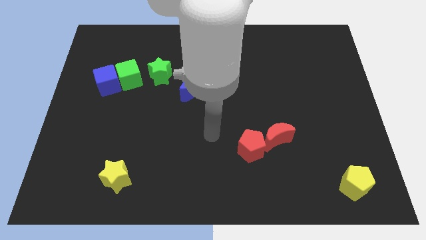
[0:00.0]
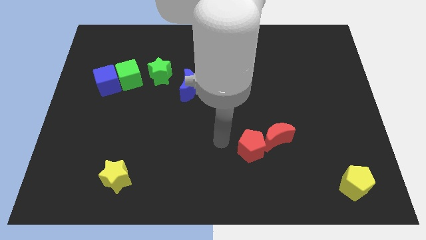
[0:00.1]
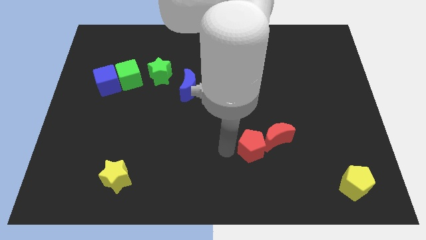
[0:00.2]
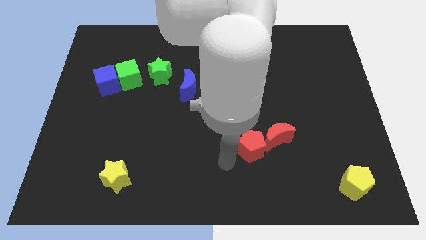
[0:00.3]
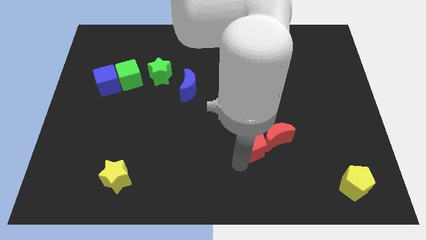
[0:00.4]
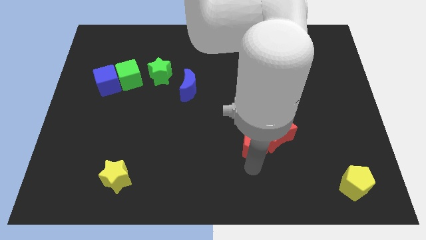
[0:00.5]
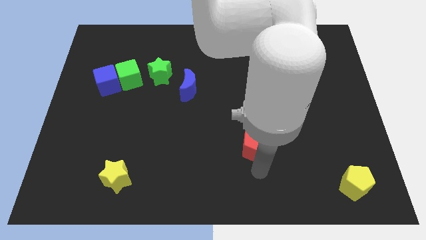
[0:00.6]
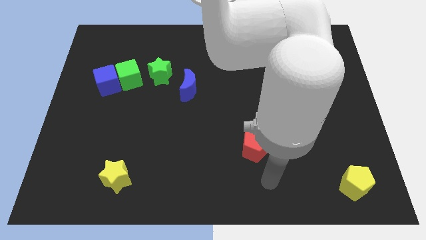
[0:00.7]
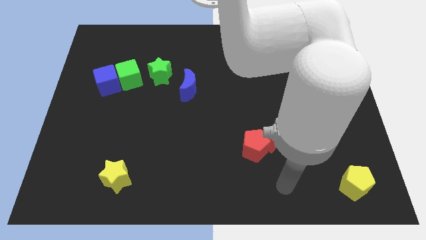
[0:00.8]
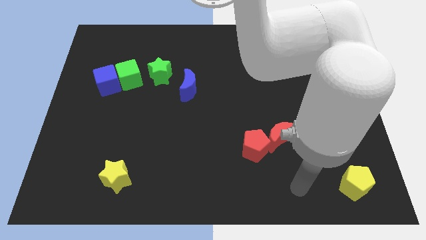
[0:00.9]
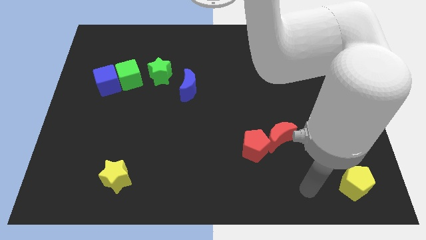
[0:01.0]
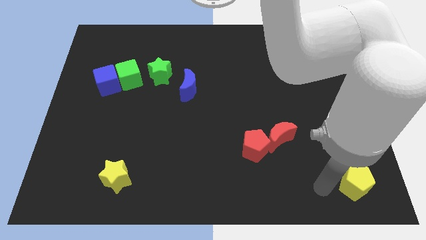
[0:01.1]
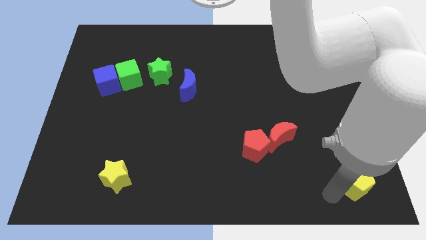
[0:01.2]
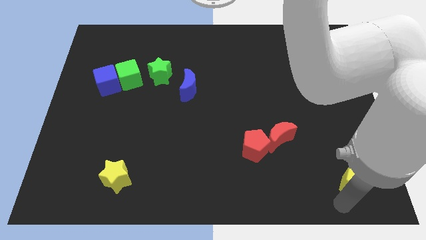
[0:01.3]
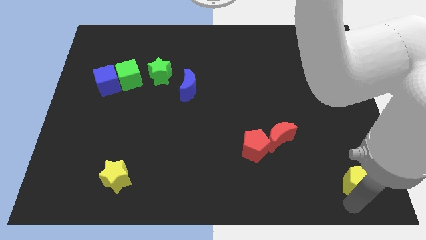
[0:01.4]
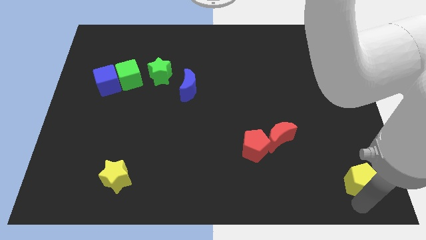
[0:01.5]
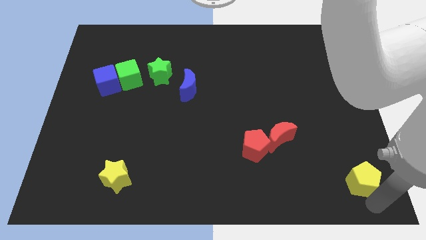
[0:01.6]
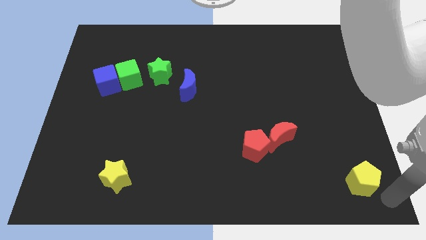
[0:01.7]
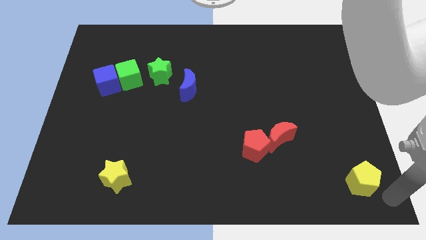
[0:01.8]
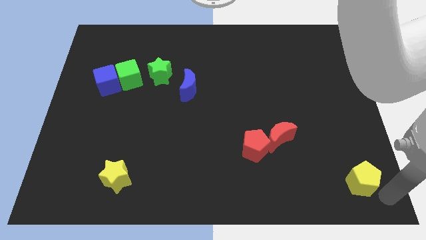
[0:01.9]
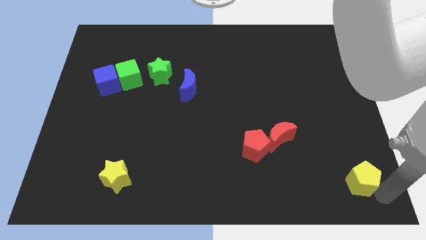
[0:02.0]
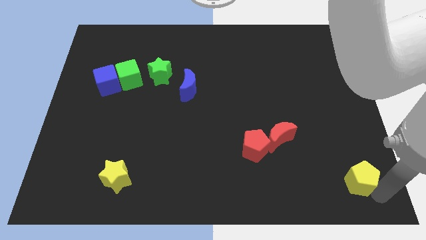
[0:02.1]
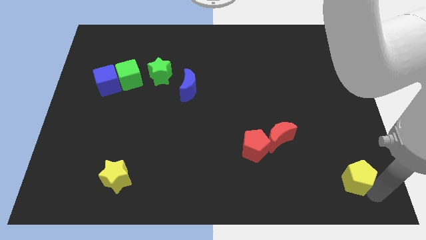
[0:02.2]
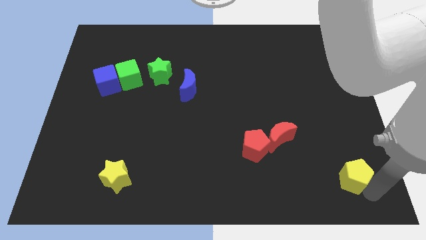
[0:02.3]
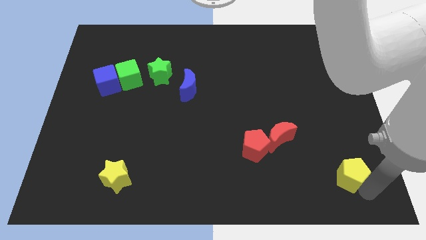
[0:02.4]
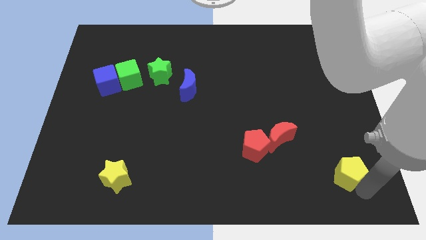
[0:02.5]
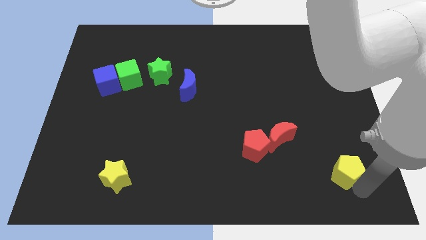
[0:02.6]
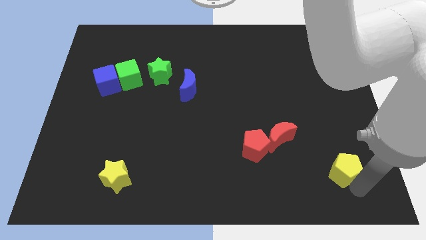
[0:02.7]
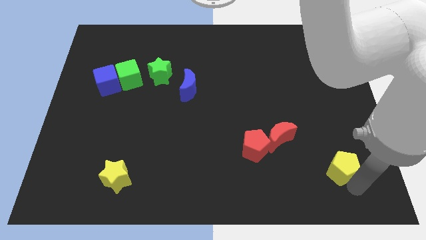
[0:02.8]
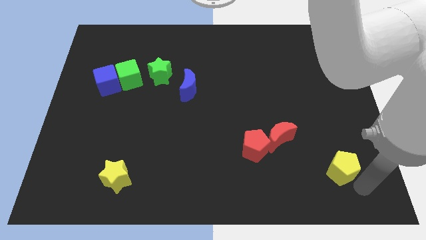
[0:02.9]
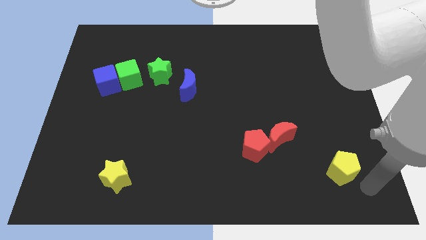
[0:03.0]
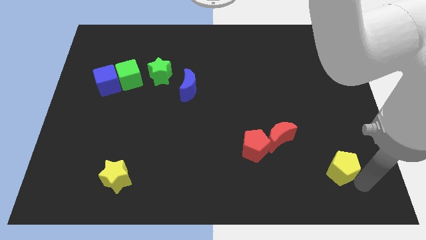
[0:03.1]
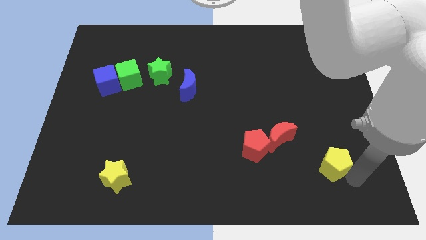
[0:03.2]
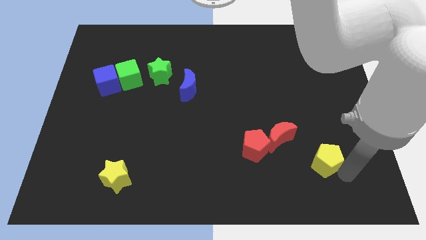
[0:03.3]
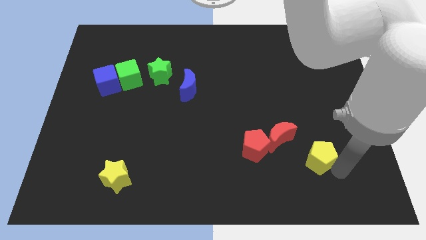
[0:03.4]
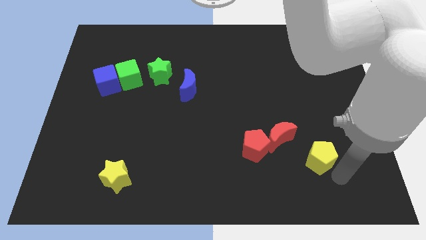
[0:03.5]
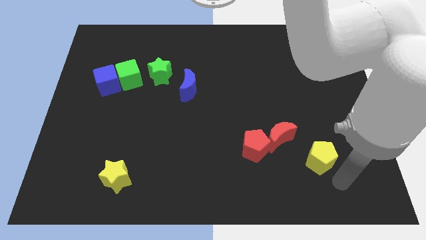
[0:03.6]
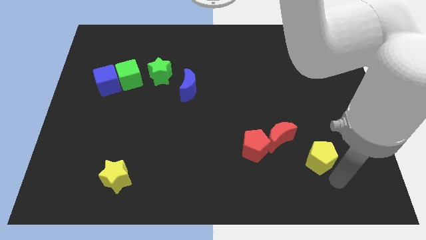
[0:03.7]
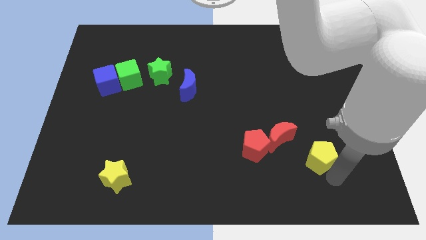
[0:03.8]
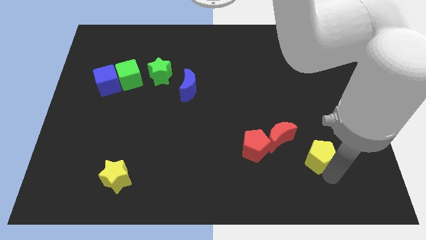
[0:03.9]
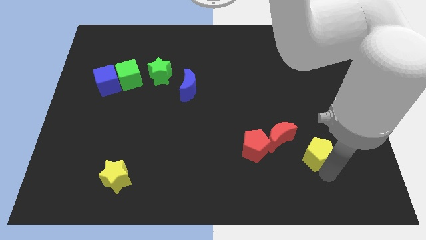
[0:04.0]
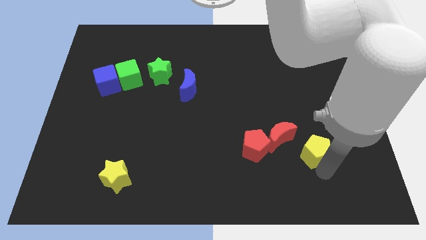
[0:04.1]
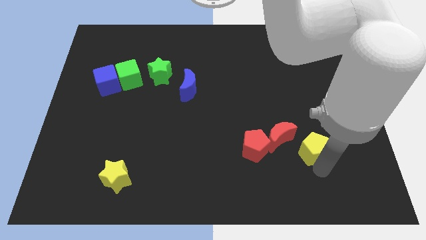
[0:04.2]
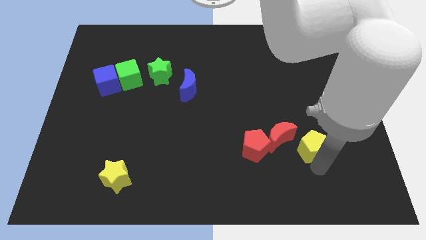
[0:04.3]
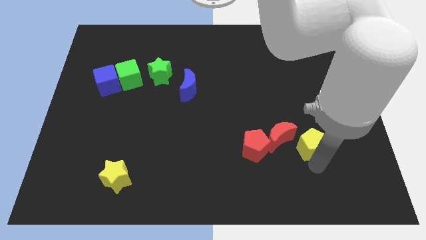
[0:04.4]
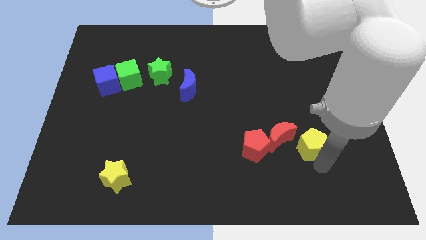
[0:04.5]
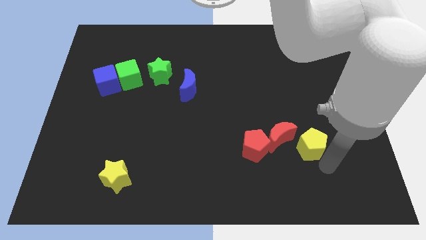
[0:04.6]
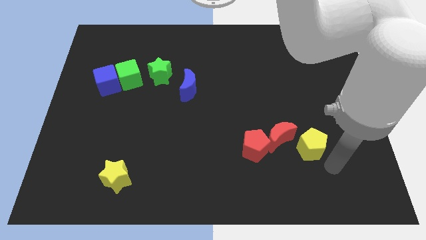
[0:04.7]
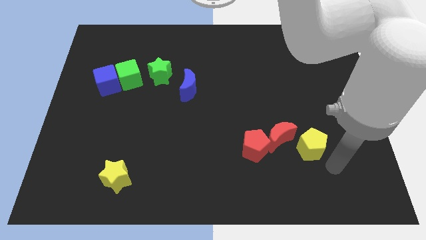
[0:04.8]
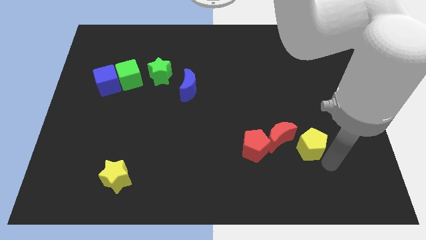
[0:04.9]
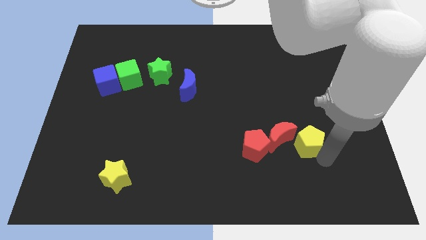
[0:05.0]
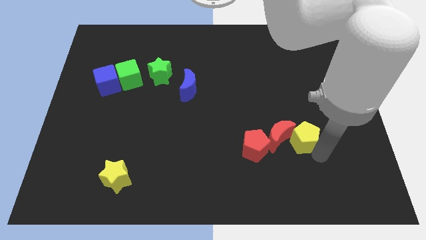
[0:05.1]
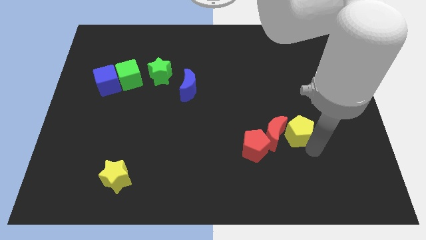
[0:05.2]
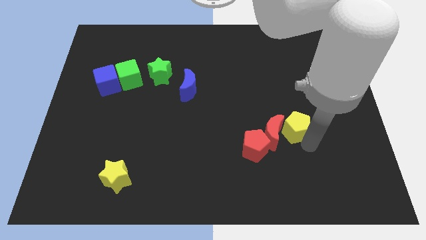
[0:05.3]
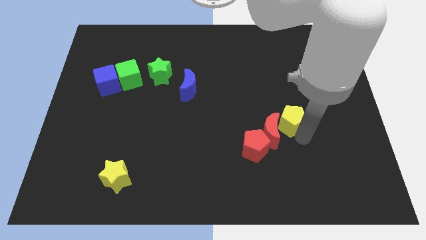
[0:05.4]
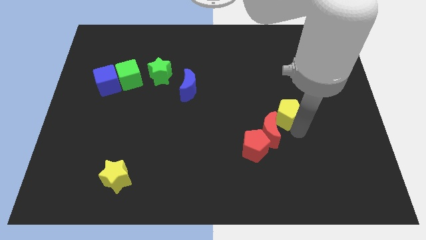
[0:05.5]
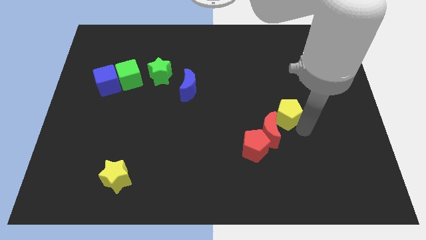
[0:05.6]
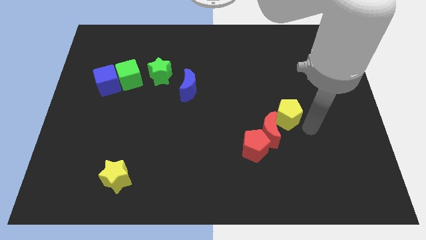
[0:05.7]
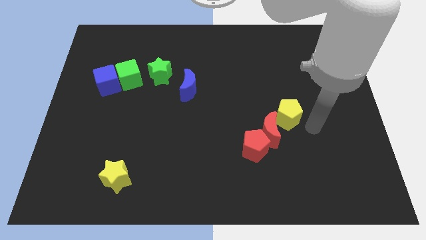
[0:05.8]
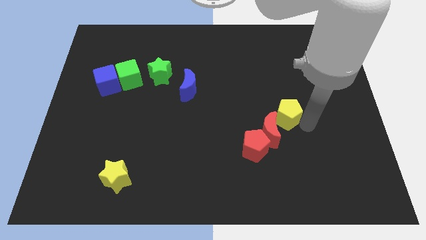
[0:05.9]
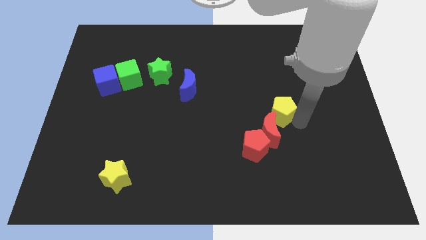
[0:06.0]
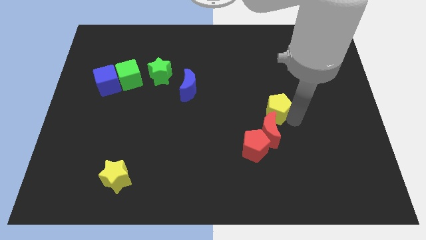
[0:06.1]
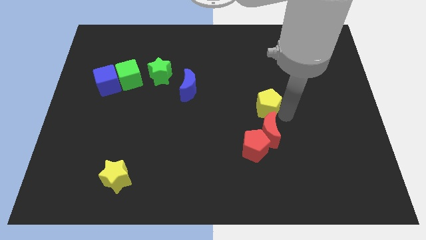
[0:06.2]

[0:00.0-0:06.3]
push the yellow pentagon to the middle of the board
